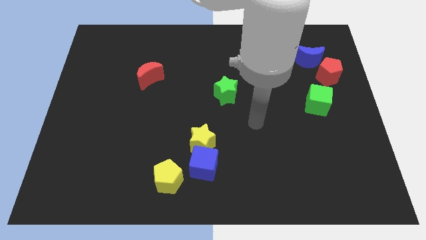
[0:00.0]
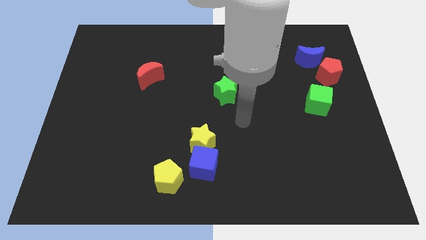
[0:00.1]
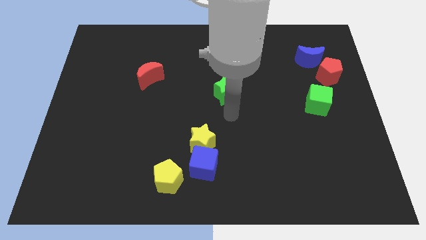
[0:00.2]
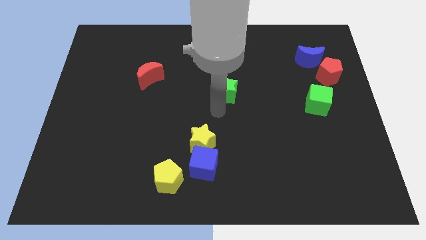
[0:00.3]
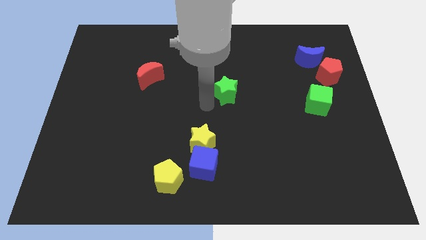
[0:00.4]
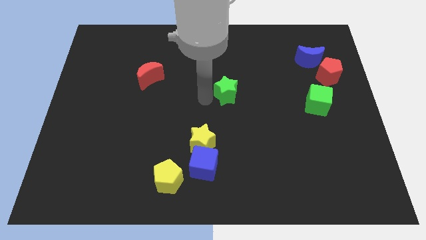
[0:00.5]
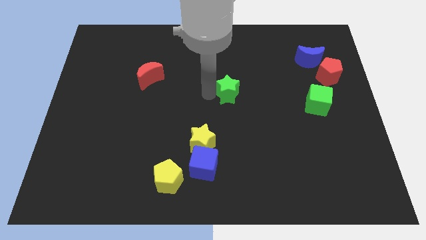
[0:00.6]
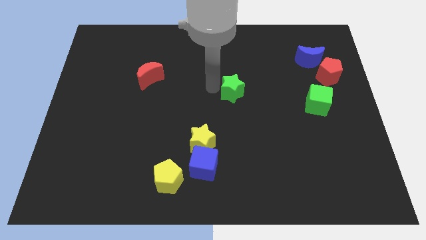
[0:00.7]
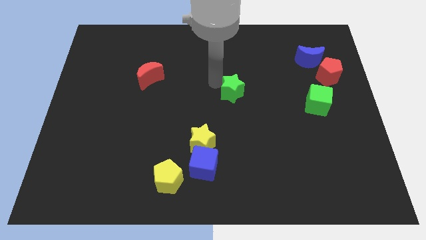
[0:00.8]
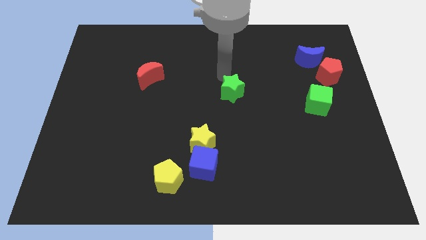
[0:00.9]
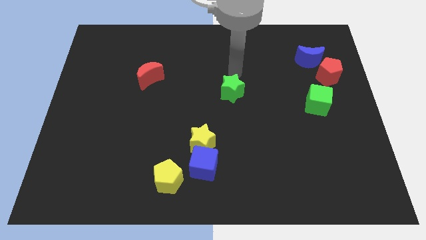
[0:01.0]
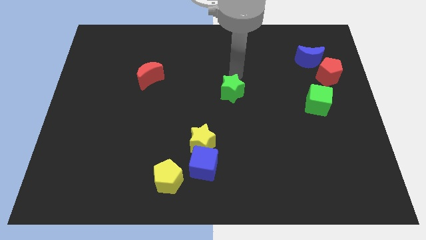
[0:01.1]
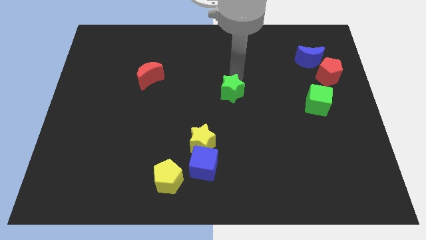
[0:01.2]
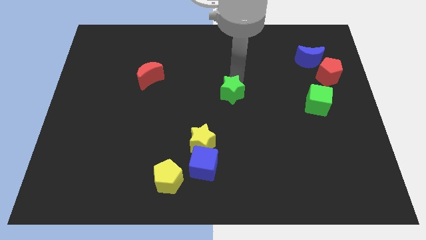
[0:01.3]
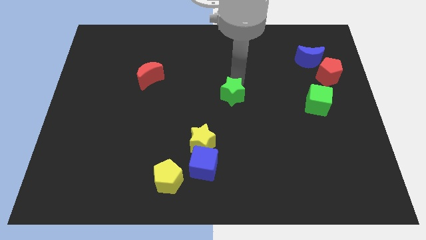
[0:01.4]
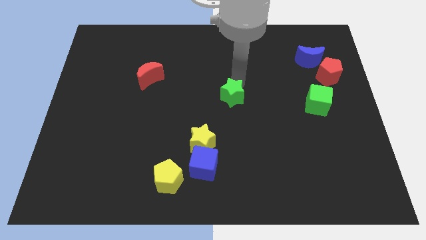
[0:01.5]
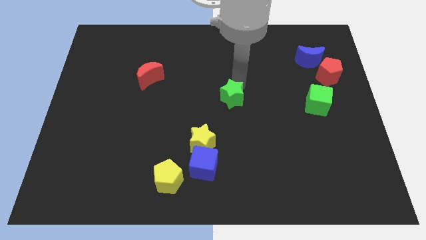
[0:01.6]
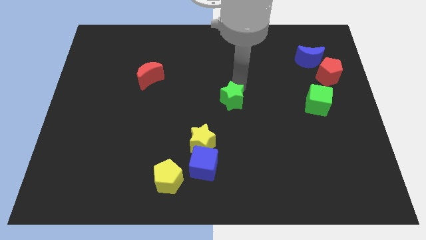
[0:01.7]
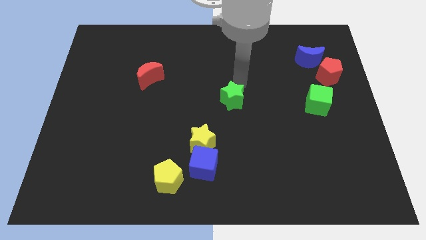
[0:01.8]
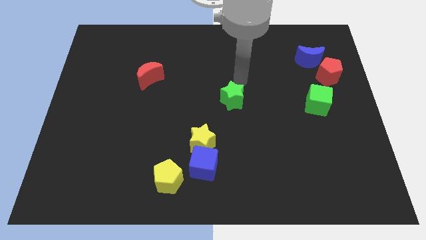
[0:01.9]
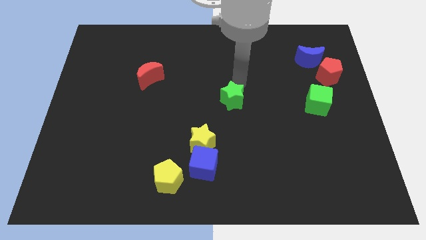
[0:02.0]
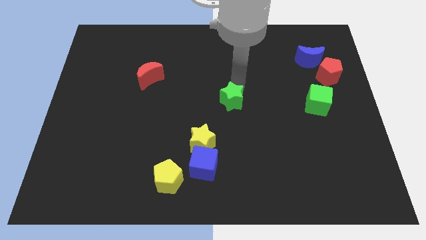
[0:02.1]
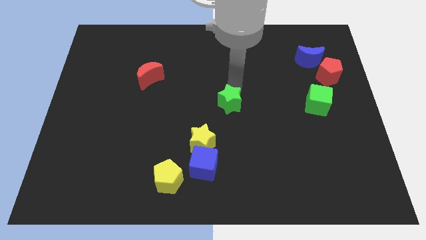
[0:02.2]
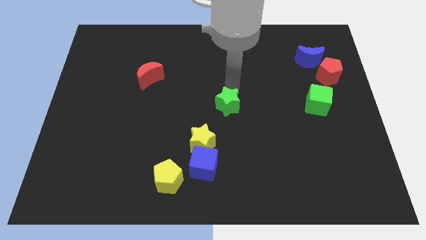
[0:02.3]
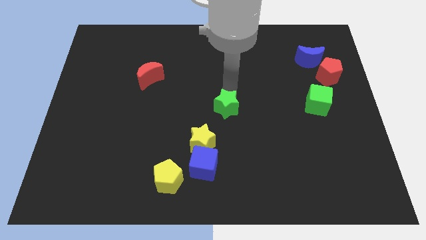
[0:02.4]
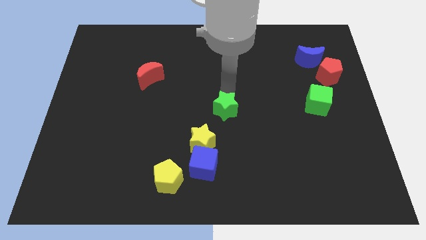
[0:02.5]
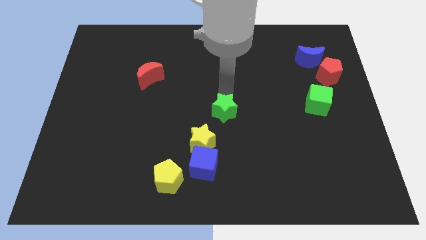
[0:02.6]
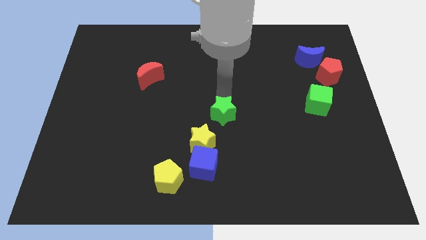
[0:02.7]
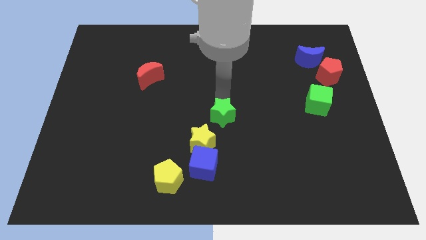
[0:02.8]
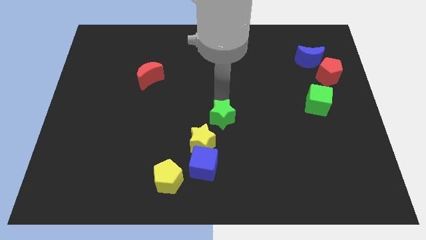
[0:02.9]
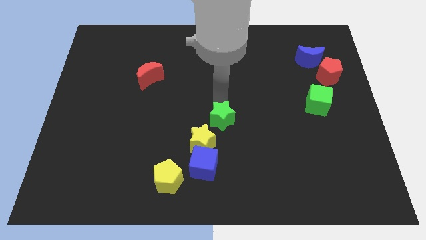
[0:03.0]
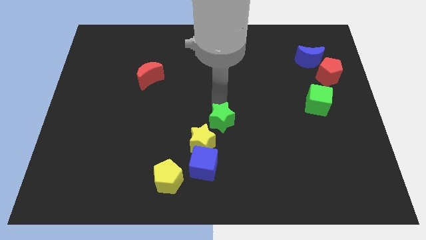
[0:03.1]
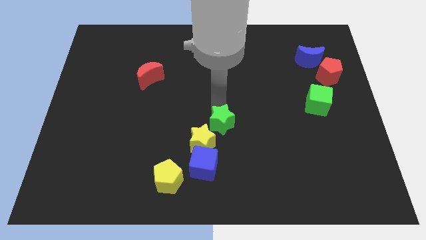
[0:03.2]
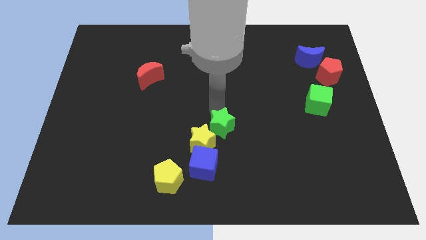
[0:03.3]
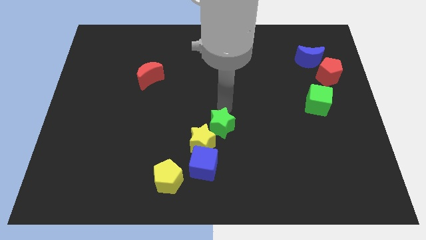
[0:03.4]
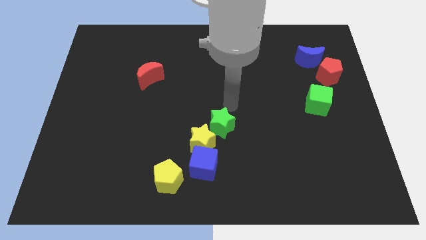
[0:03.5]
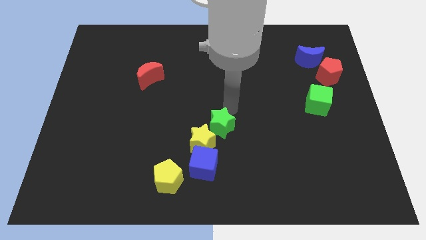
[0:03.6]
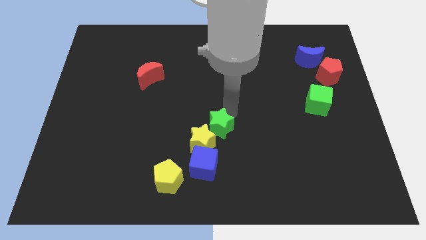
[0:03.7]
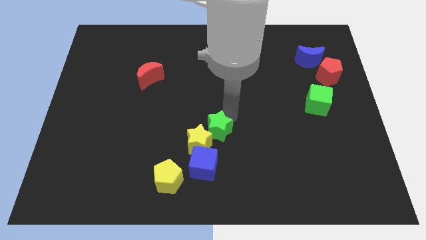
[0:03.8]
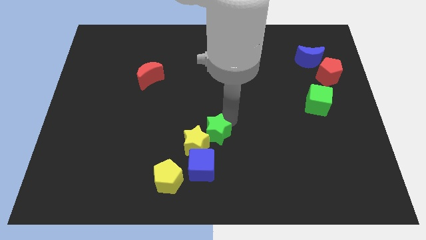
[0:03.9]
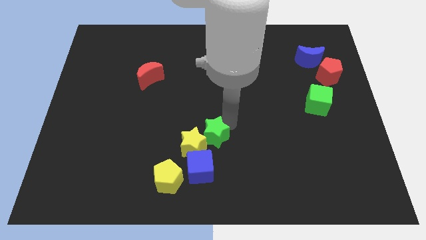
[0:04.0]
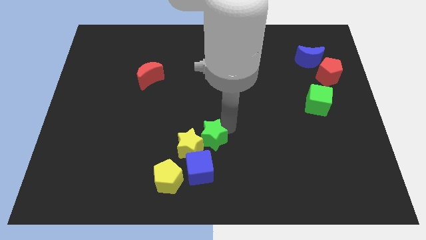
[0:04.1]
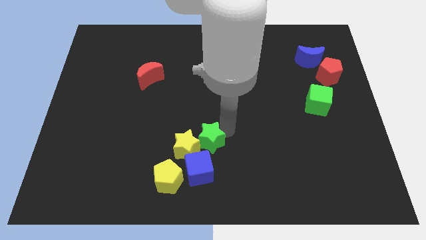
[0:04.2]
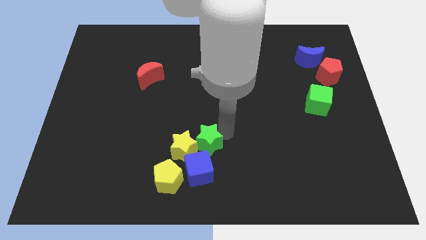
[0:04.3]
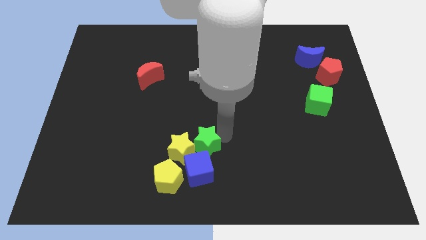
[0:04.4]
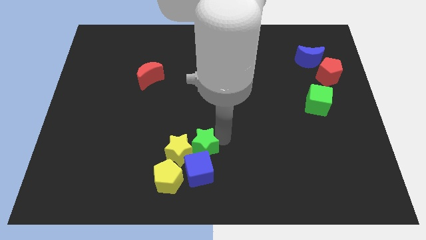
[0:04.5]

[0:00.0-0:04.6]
move the green star close to the blue cube

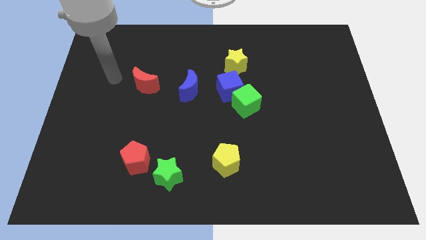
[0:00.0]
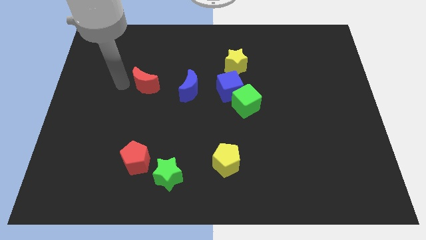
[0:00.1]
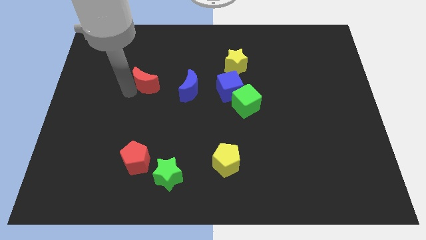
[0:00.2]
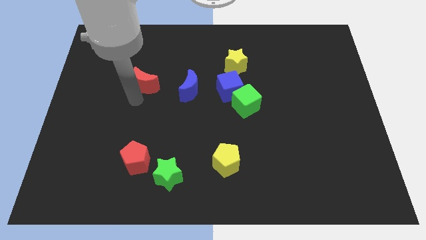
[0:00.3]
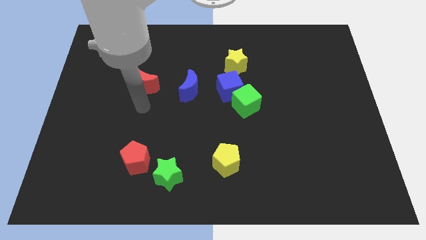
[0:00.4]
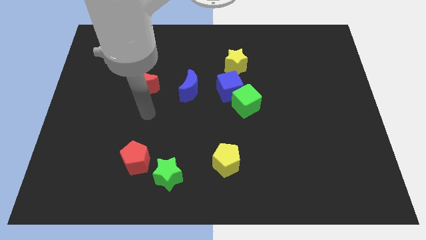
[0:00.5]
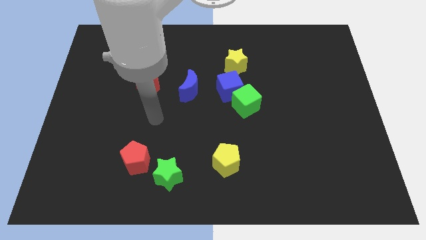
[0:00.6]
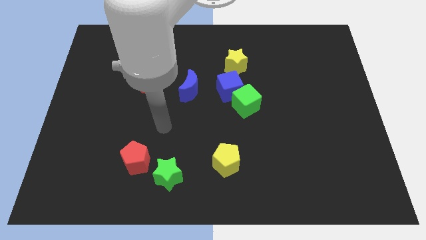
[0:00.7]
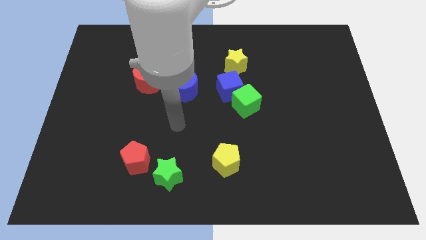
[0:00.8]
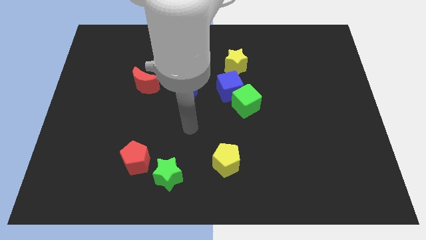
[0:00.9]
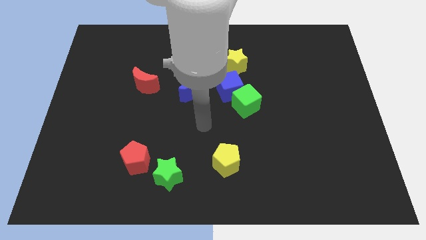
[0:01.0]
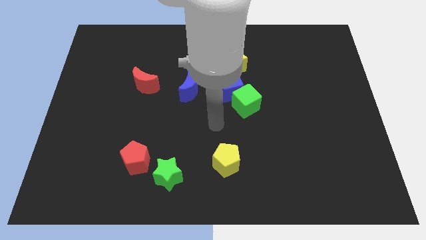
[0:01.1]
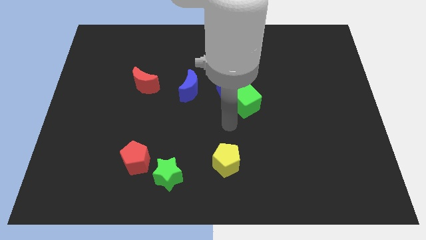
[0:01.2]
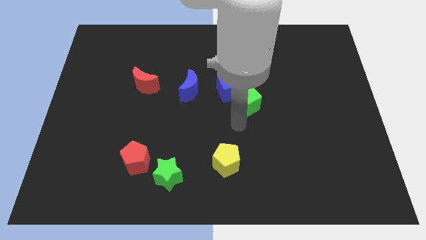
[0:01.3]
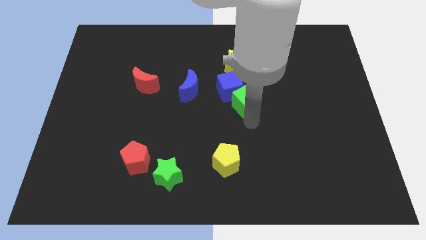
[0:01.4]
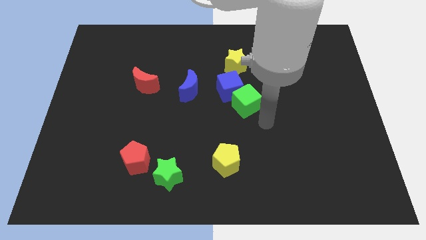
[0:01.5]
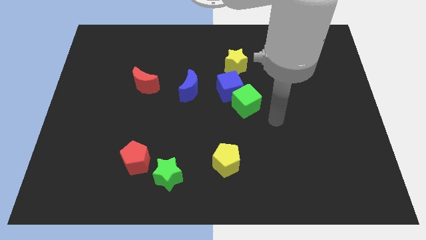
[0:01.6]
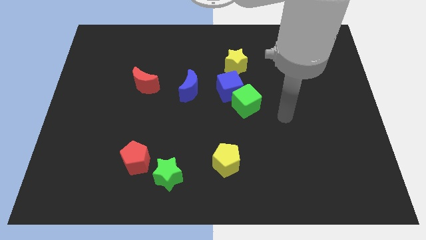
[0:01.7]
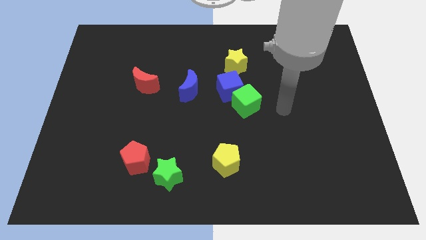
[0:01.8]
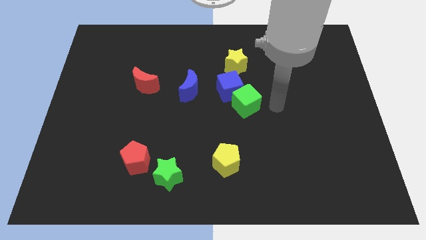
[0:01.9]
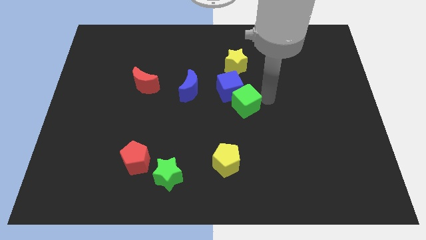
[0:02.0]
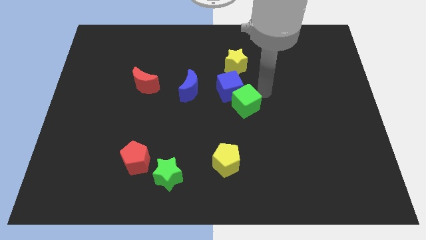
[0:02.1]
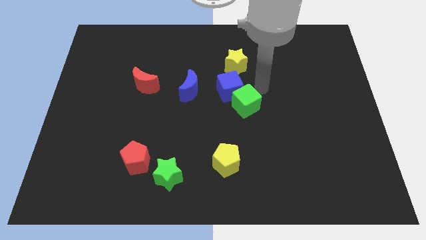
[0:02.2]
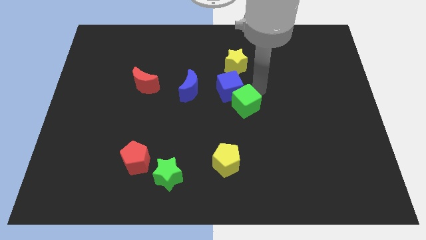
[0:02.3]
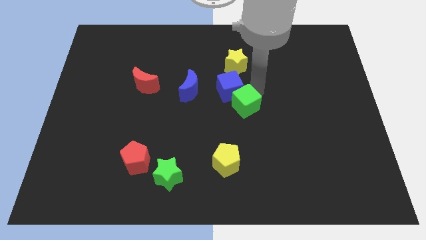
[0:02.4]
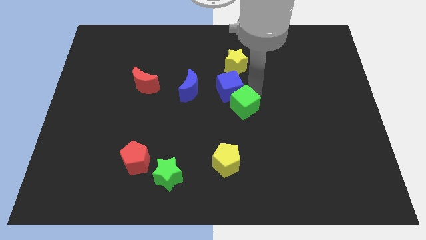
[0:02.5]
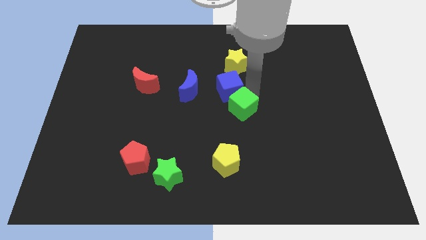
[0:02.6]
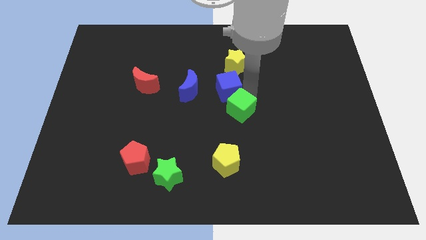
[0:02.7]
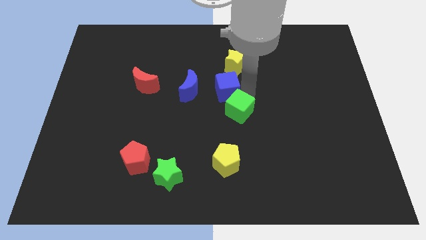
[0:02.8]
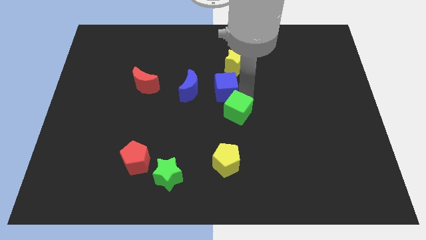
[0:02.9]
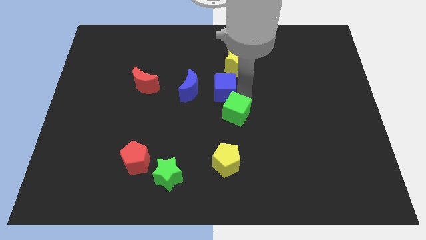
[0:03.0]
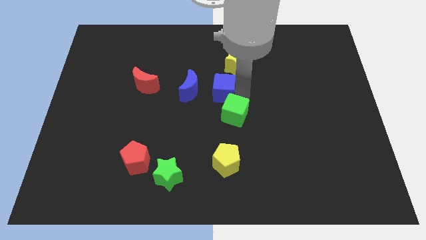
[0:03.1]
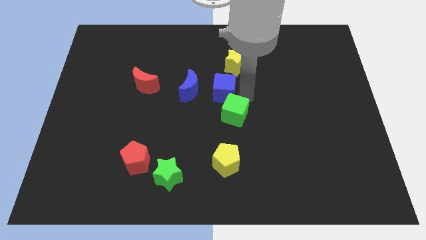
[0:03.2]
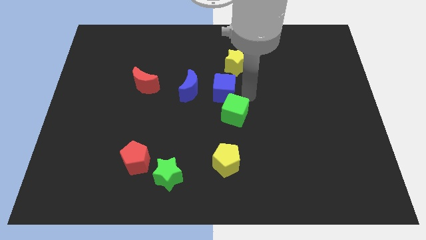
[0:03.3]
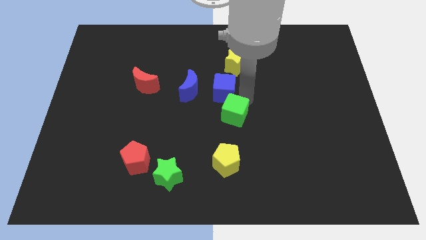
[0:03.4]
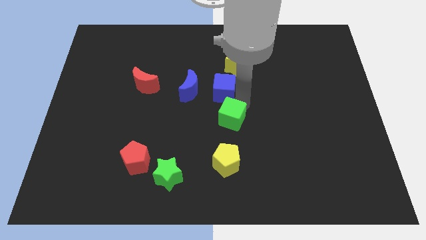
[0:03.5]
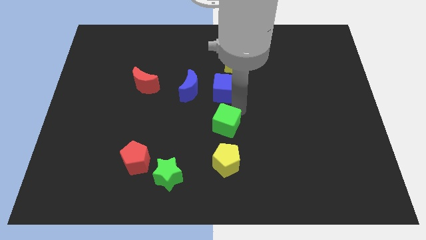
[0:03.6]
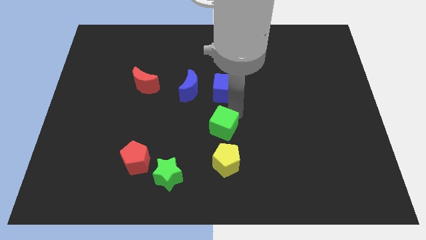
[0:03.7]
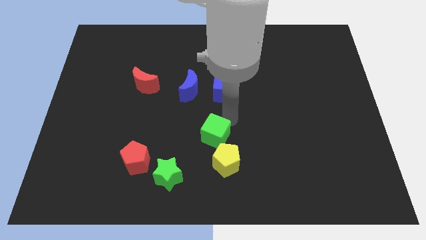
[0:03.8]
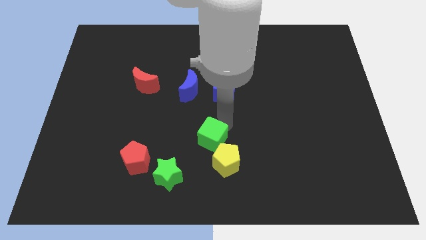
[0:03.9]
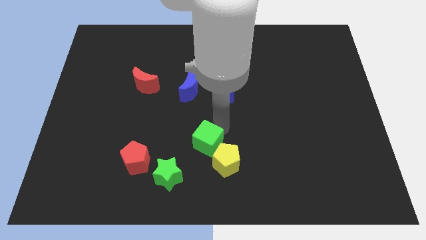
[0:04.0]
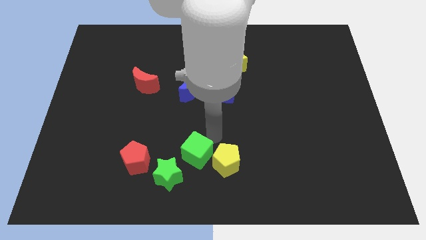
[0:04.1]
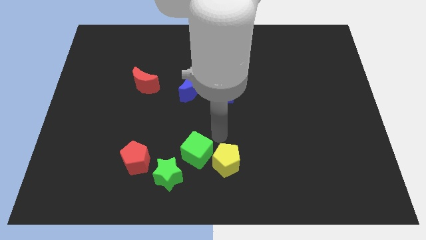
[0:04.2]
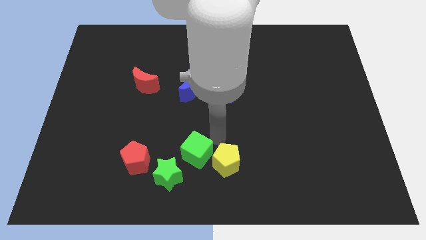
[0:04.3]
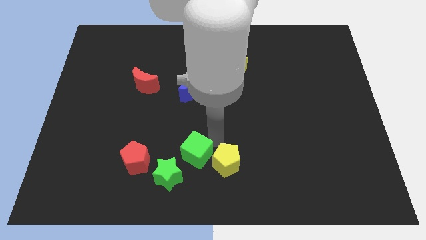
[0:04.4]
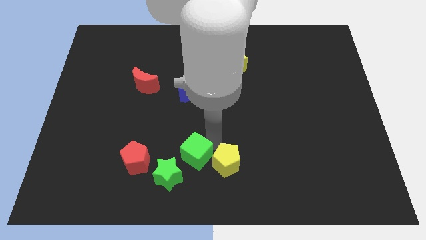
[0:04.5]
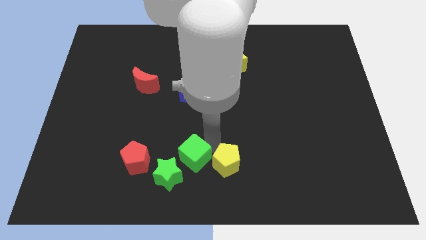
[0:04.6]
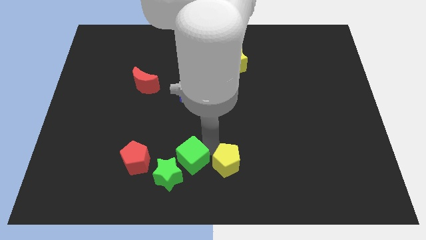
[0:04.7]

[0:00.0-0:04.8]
move the green cube close to the green star
